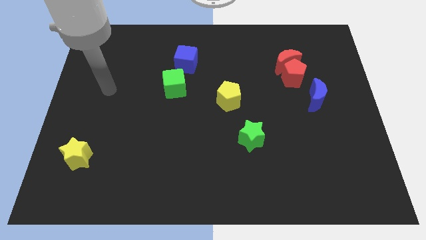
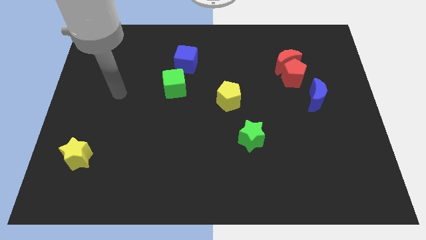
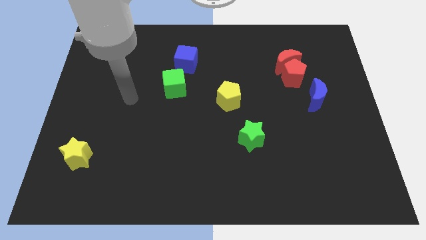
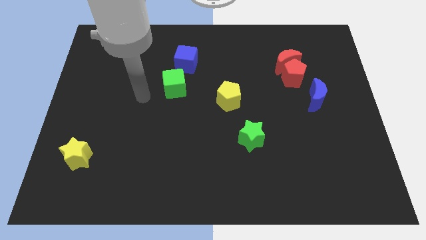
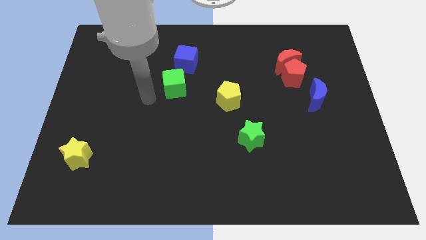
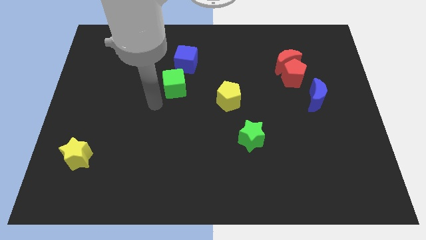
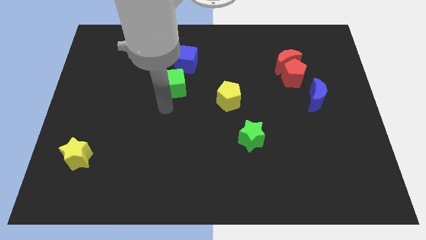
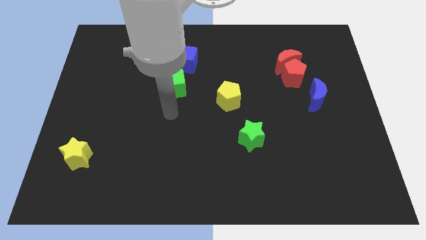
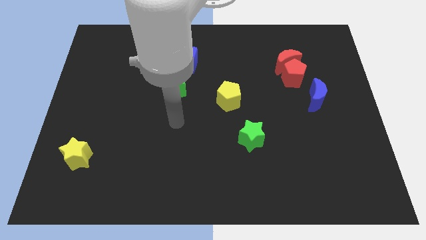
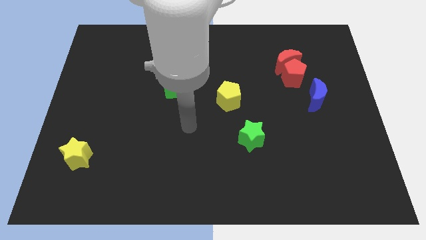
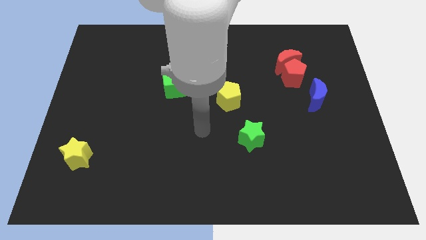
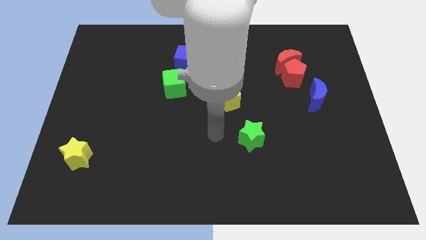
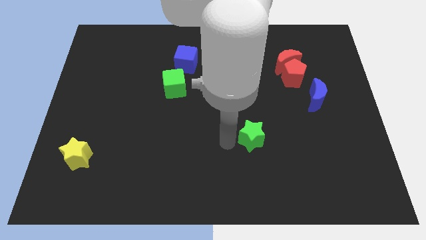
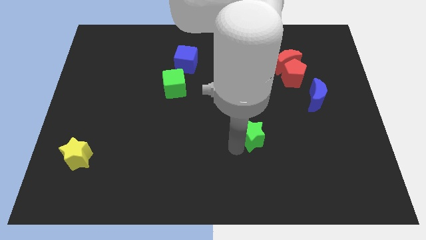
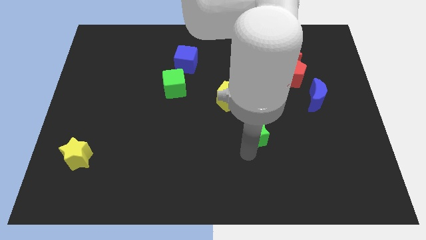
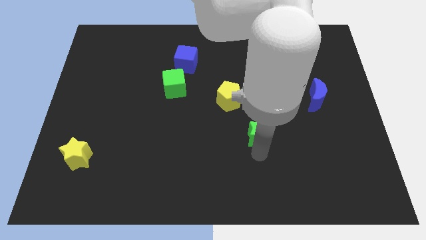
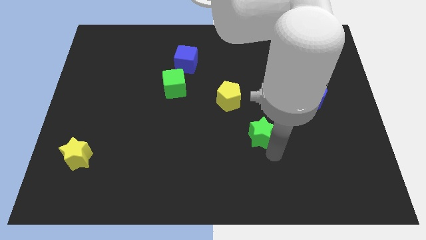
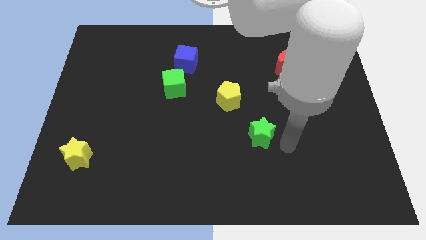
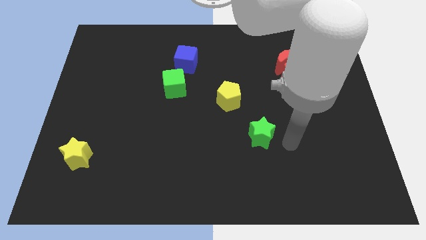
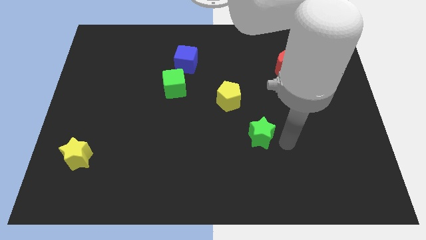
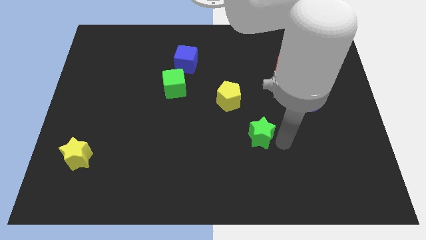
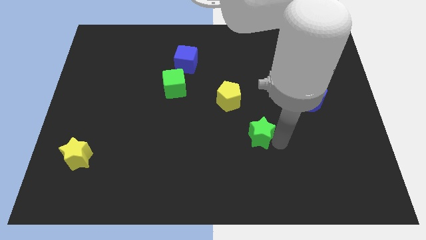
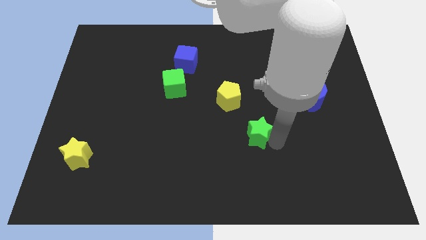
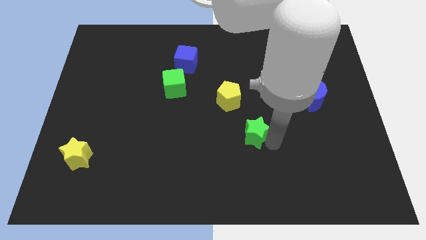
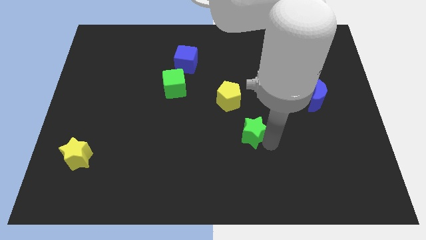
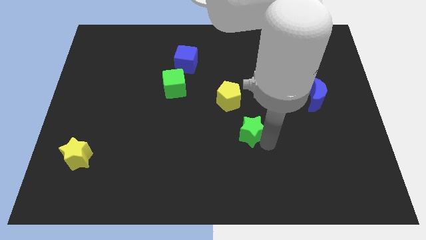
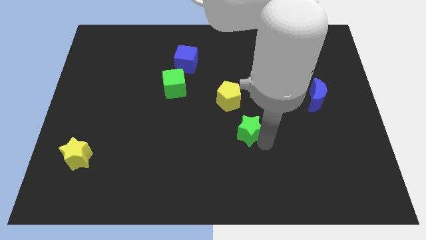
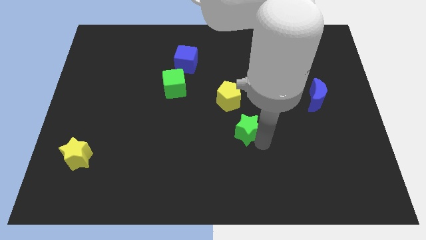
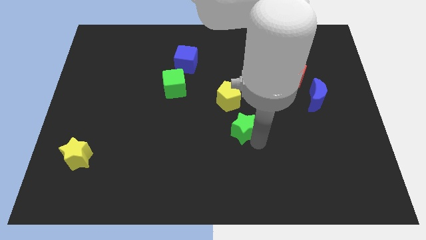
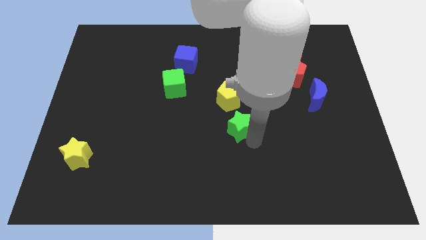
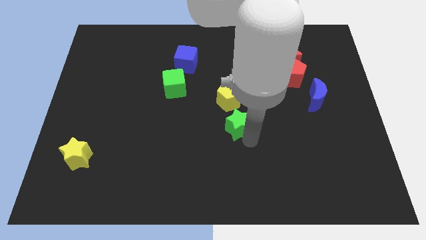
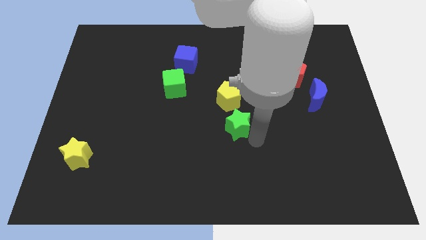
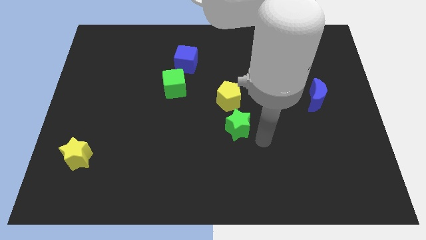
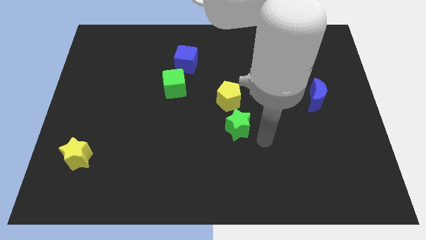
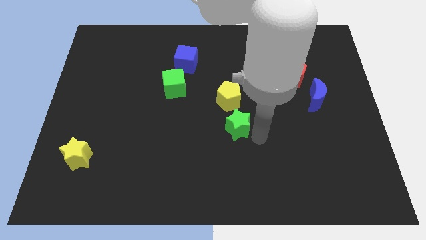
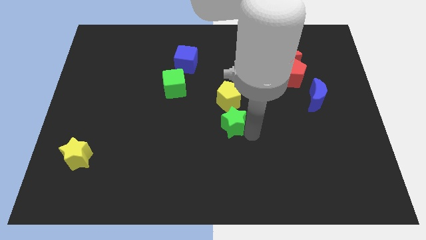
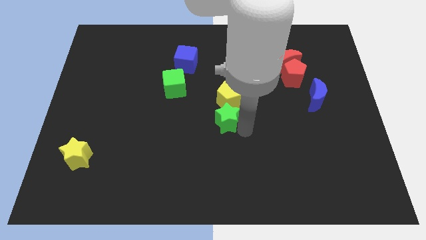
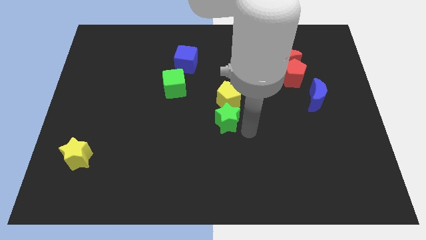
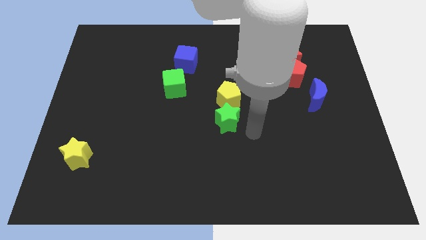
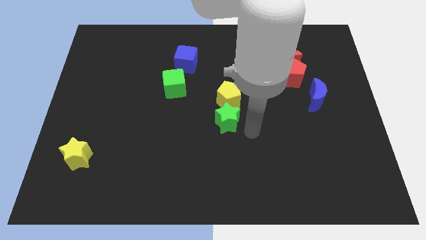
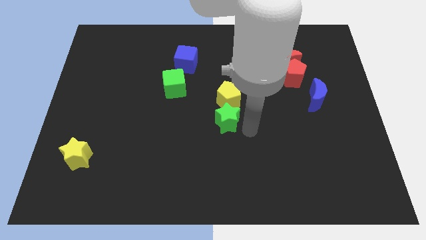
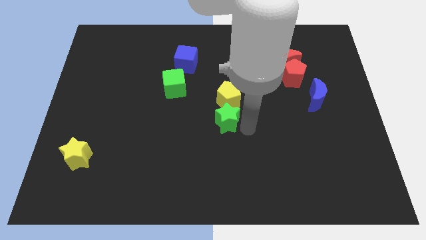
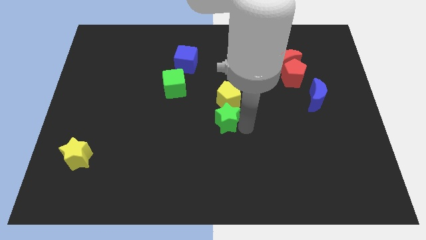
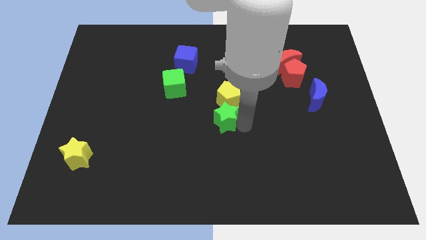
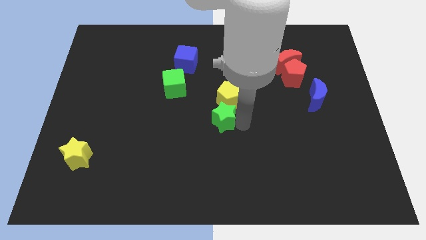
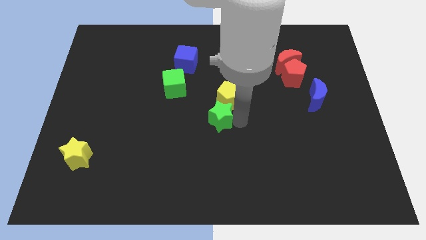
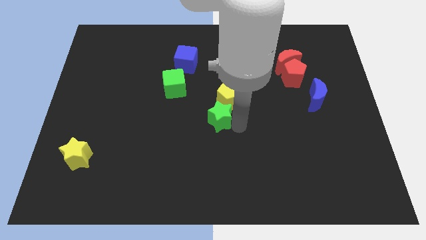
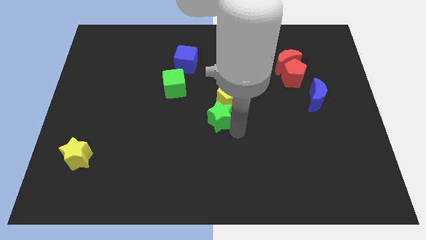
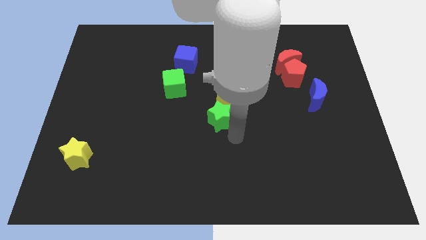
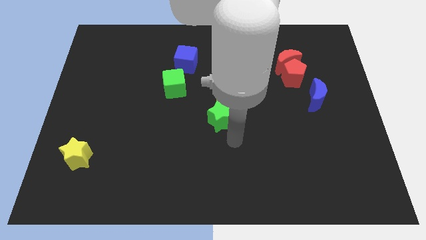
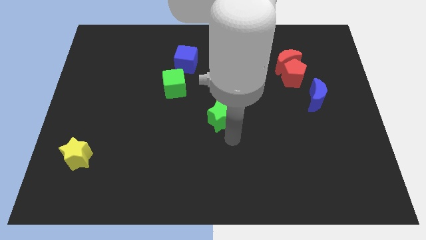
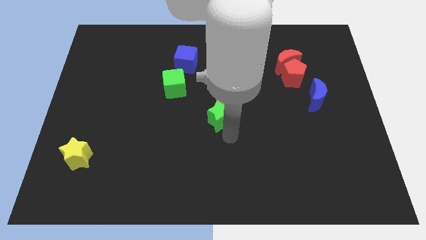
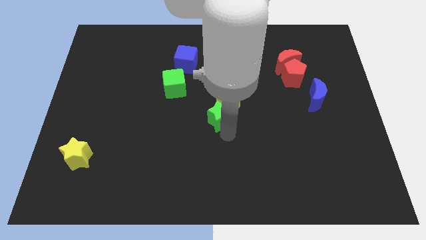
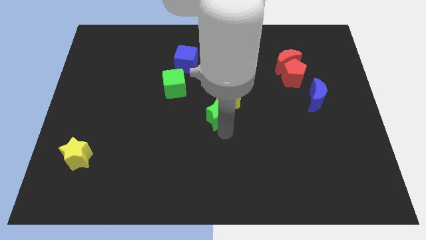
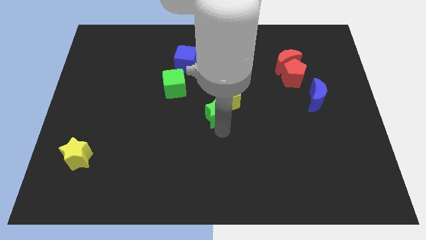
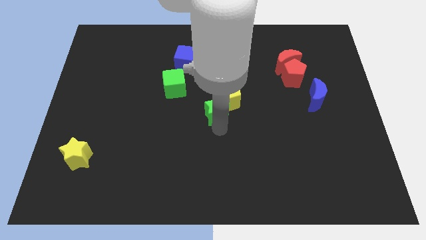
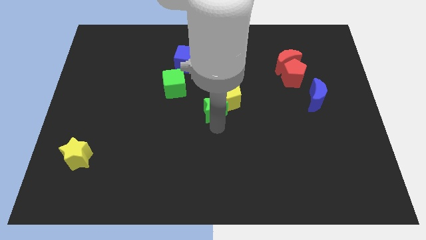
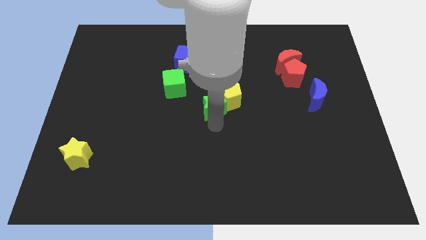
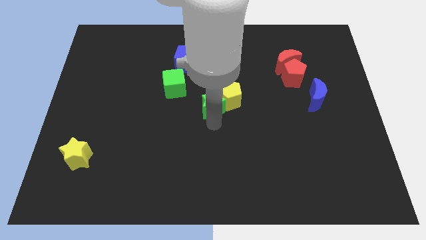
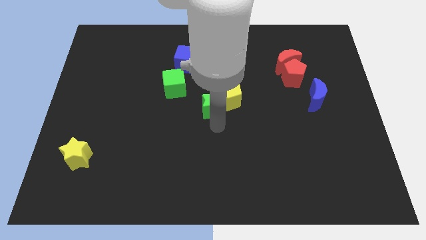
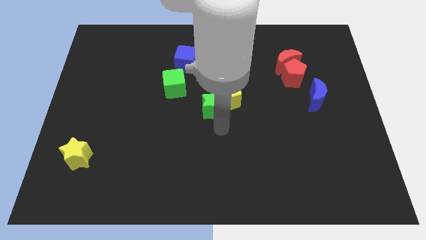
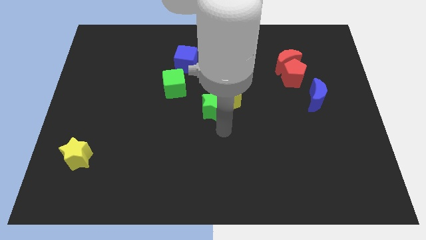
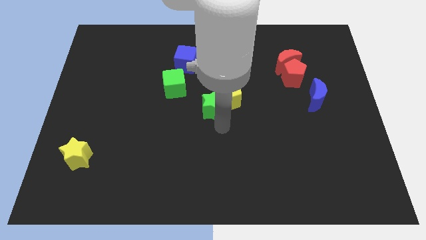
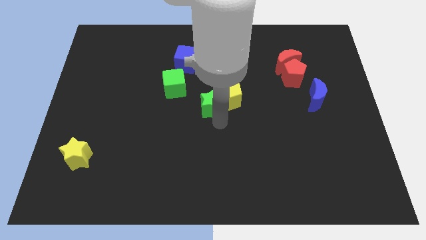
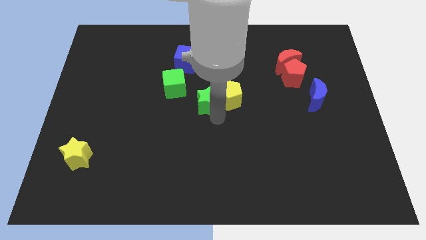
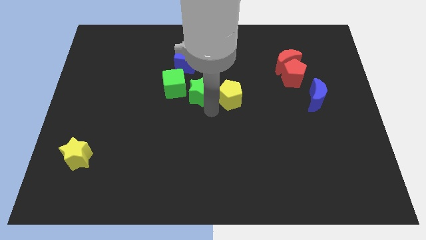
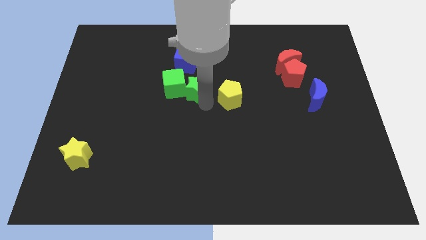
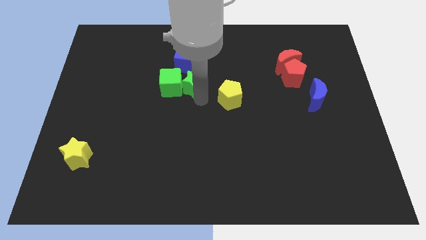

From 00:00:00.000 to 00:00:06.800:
push the green star diagonally up and to the right of the green cube
